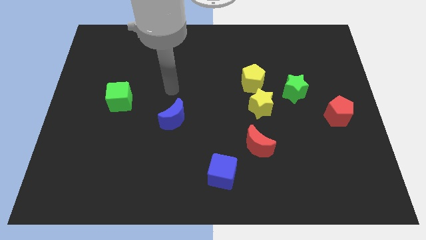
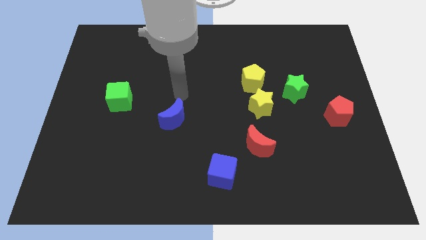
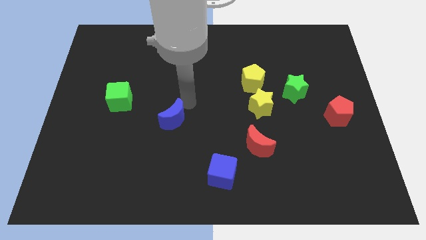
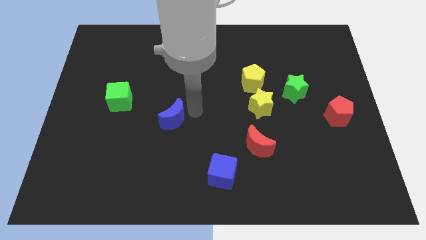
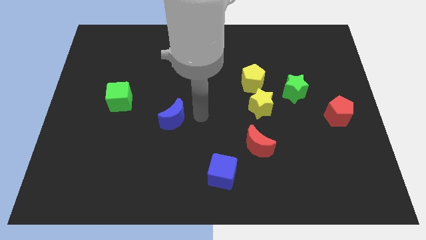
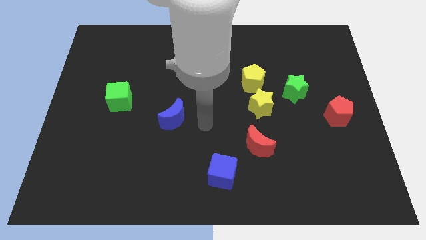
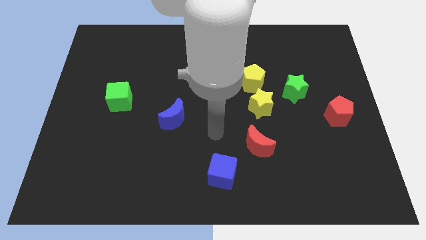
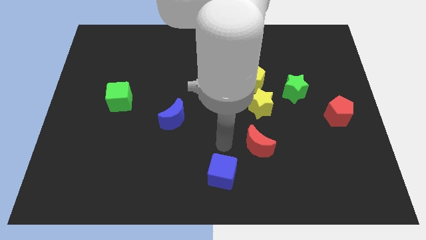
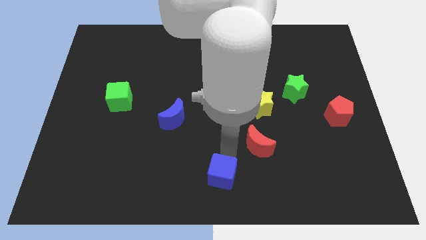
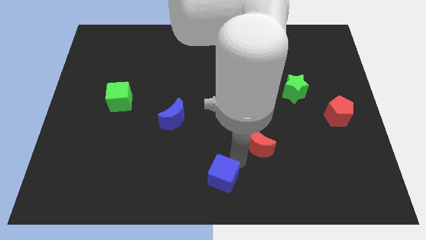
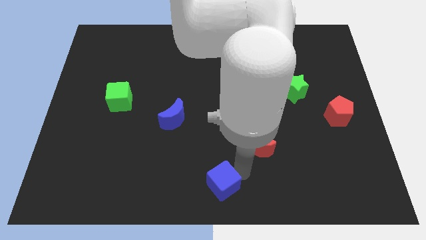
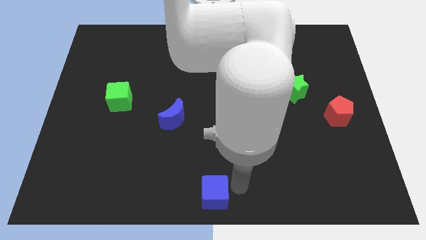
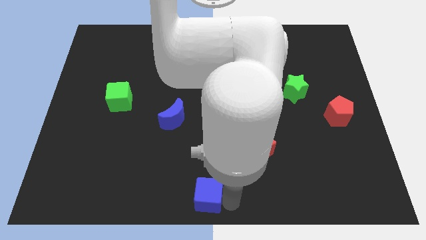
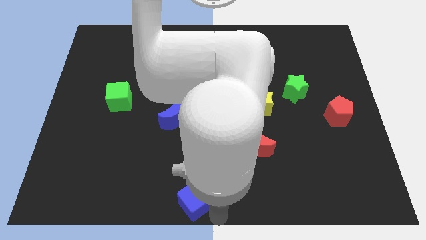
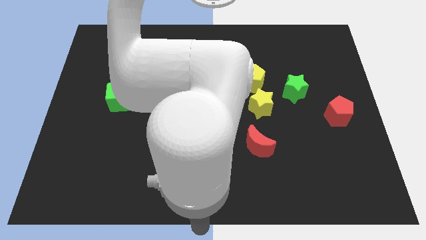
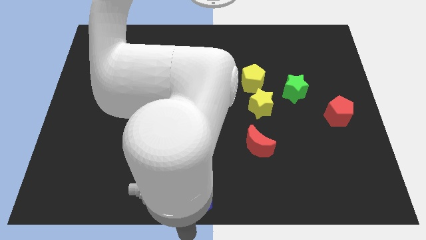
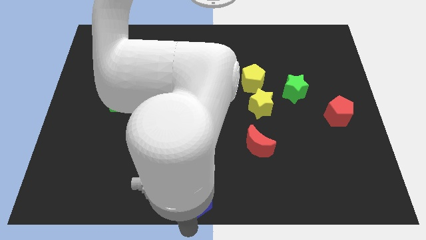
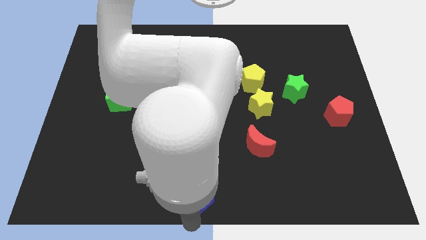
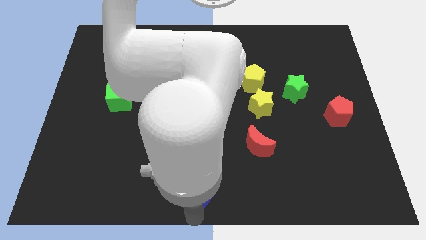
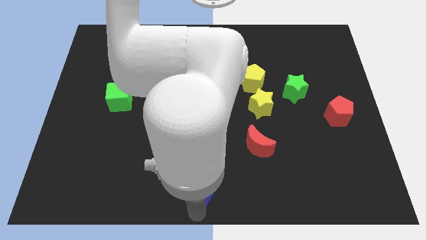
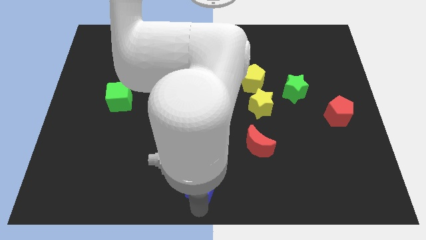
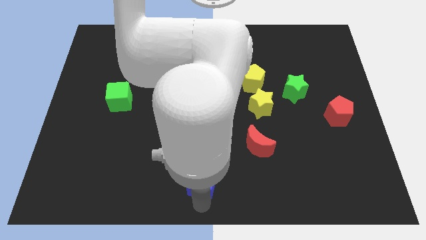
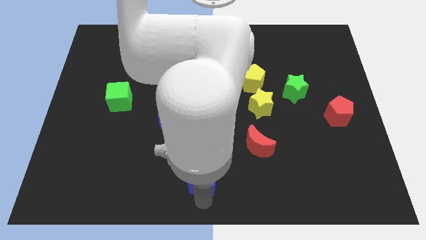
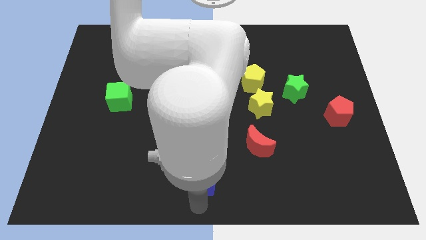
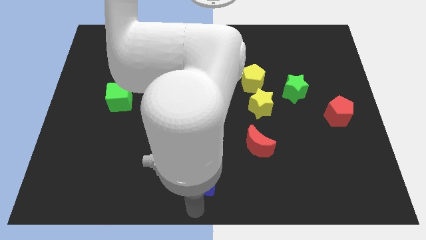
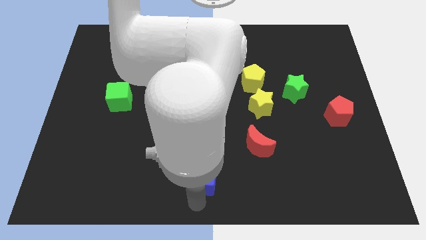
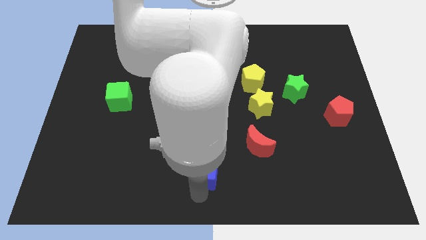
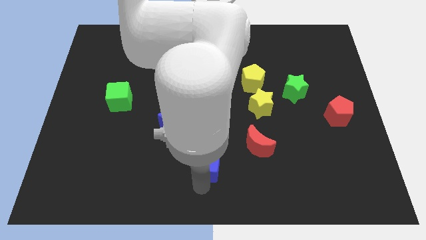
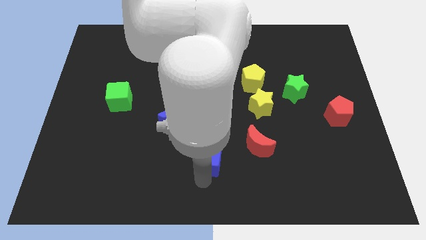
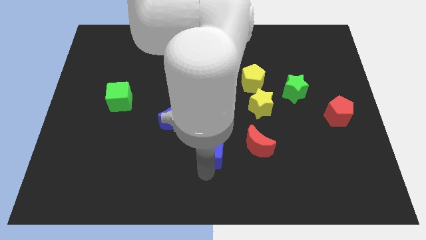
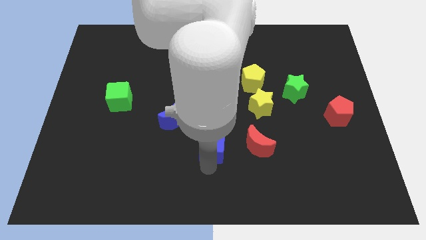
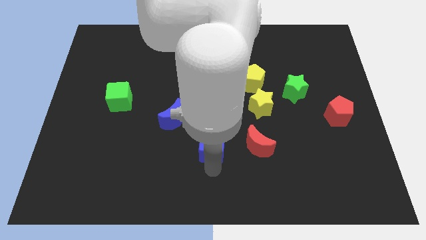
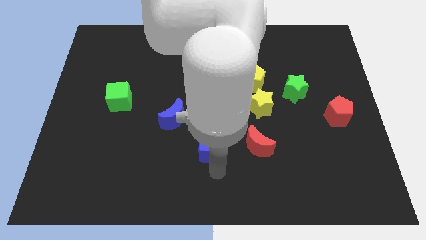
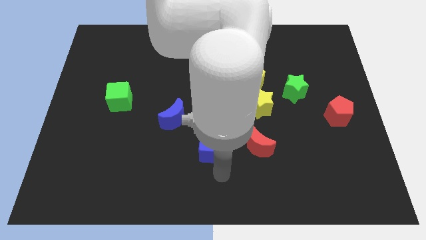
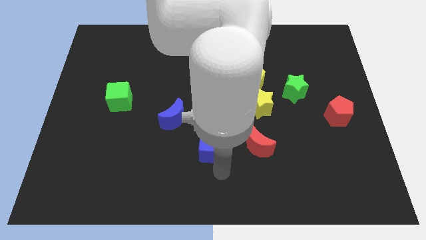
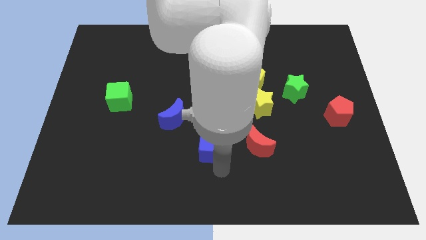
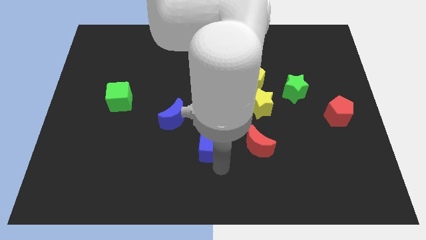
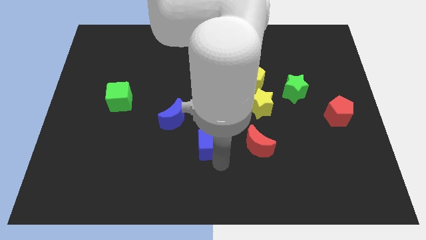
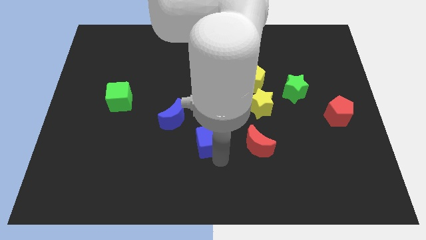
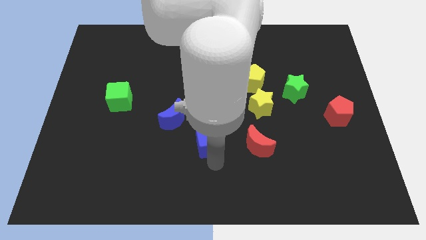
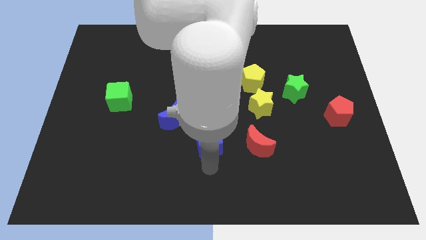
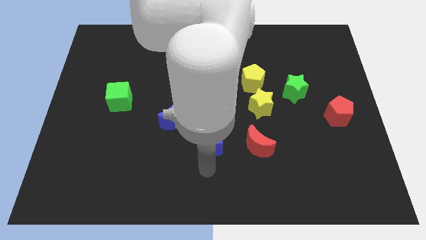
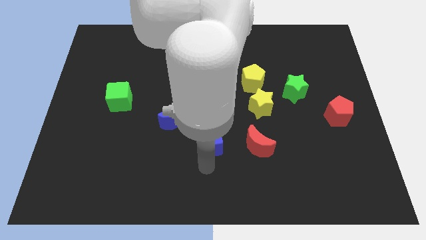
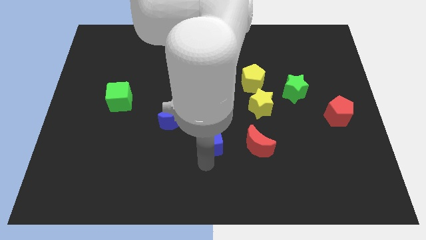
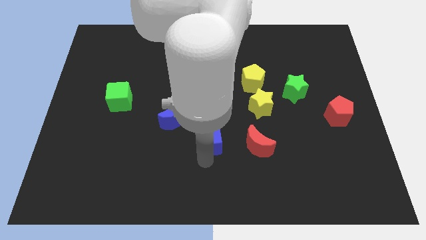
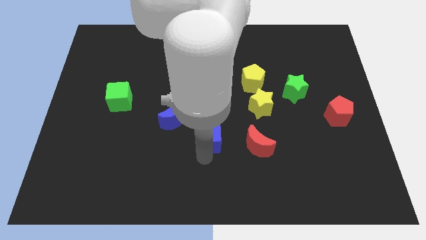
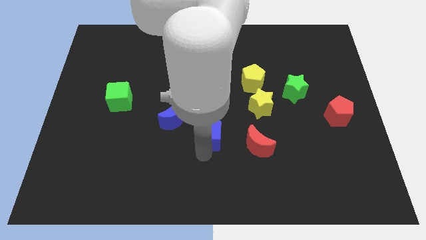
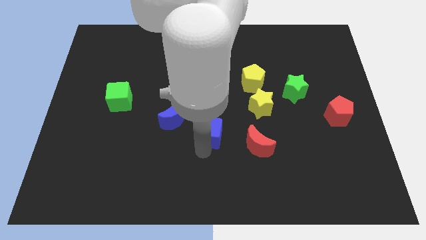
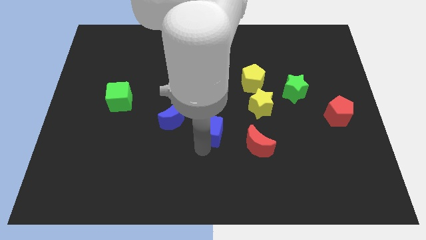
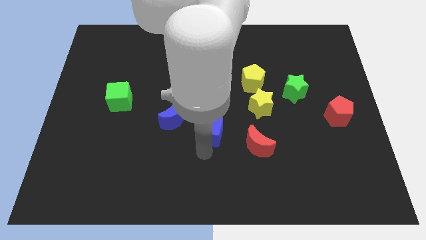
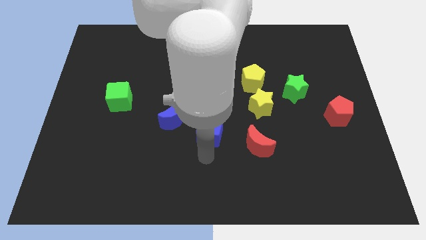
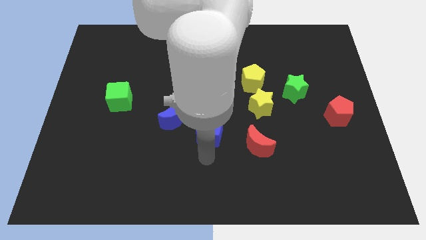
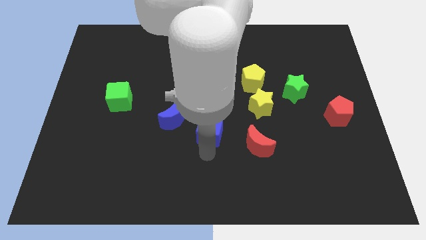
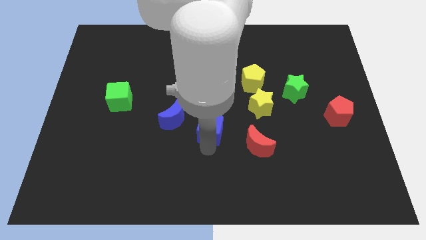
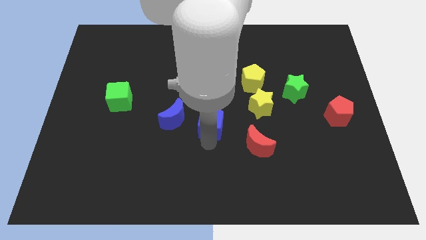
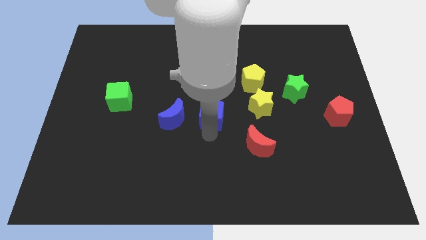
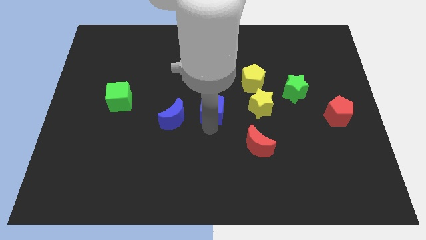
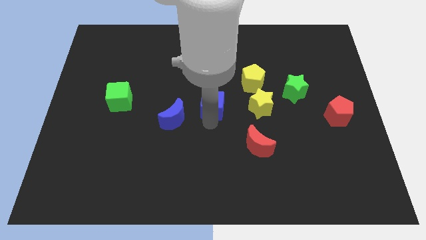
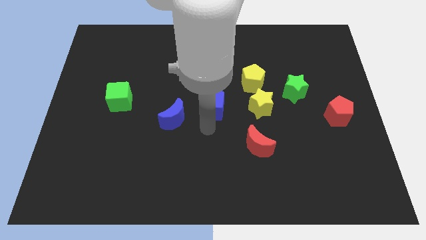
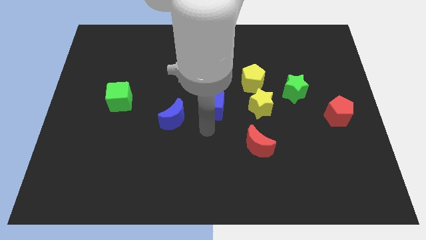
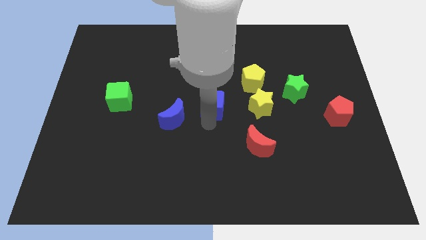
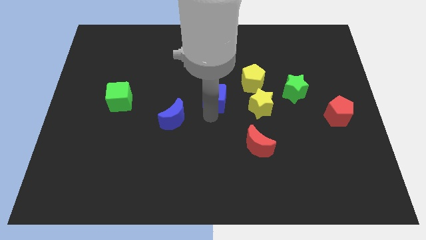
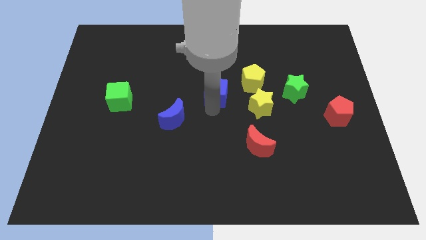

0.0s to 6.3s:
move the blue cube upwards

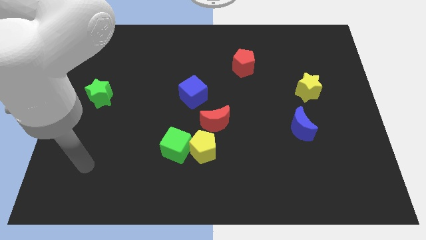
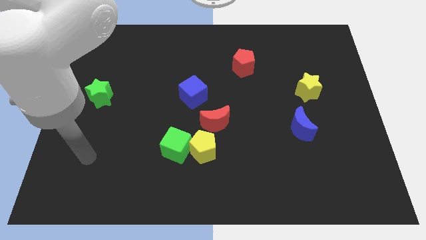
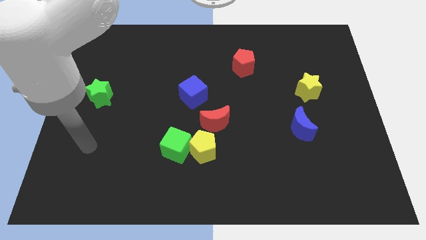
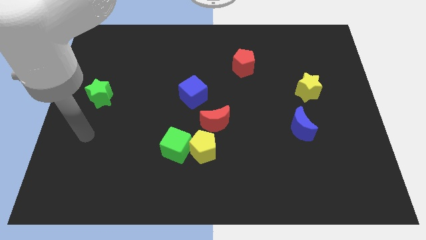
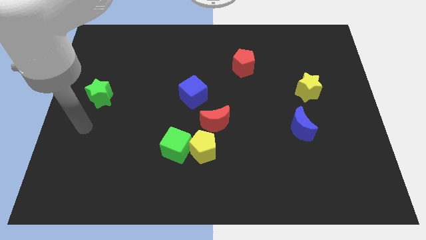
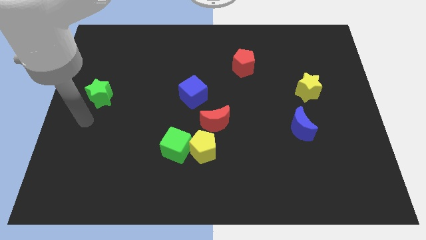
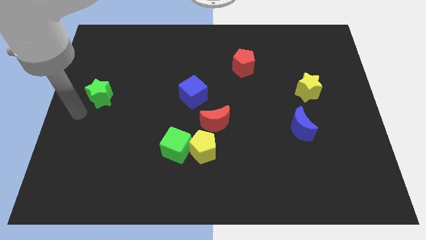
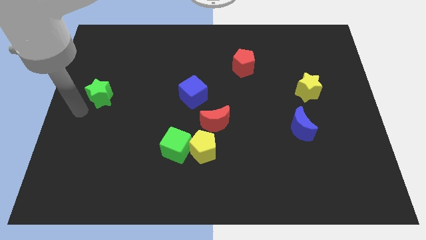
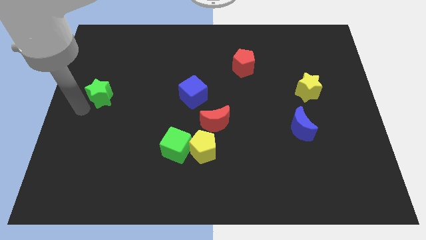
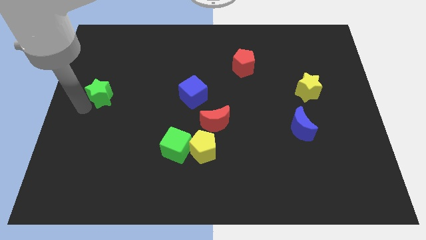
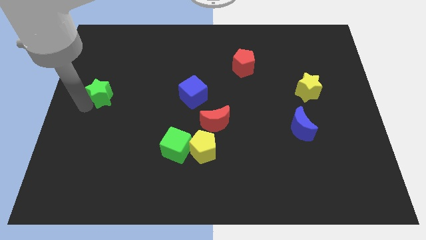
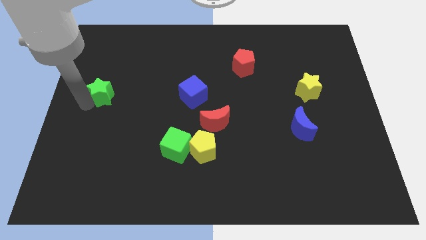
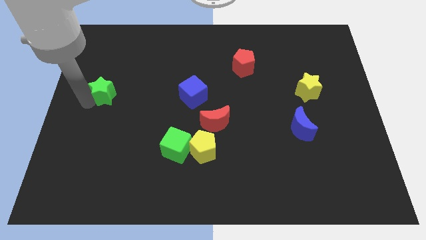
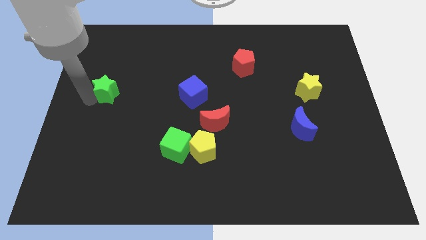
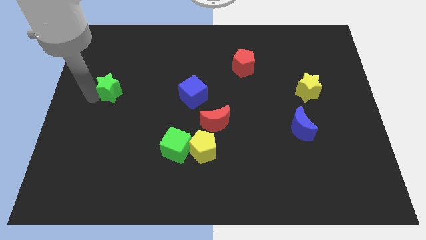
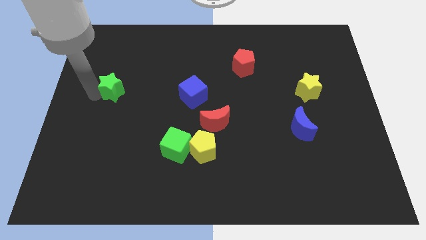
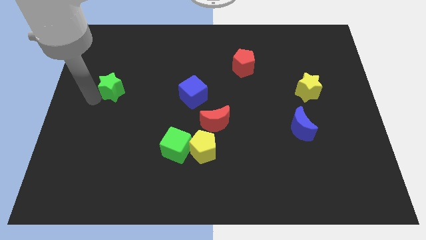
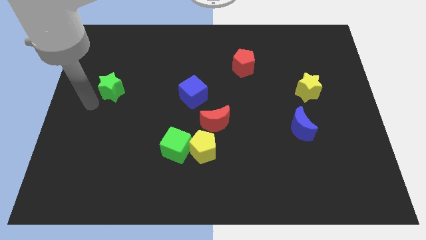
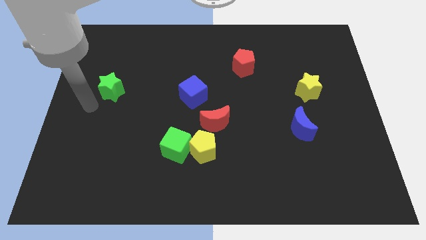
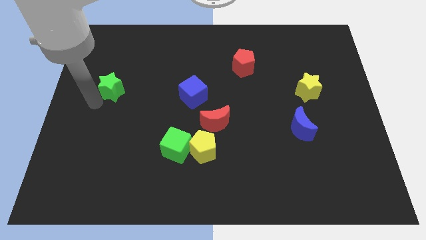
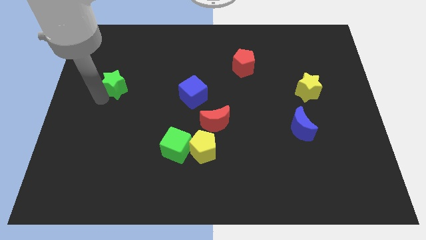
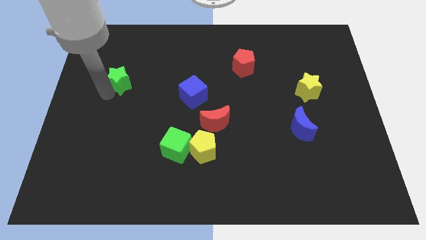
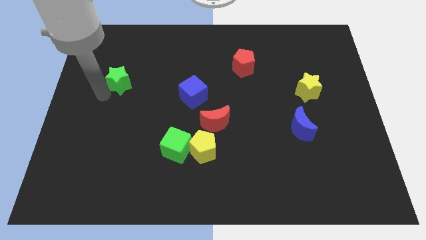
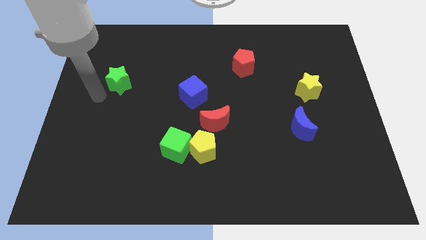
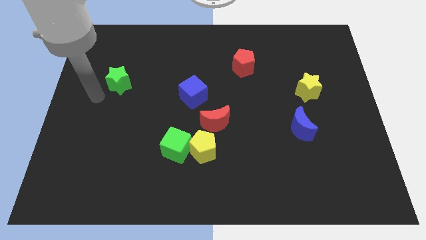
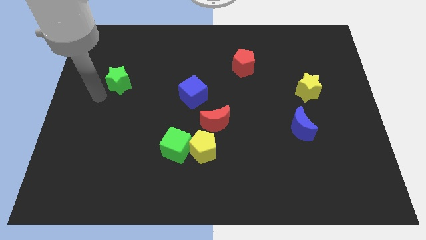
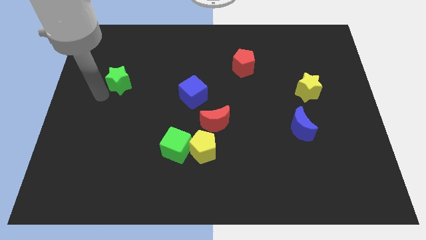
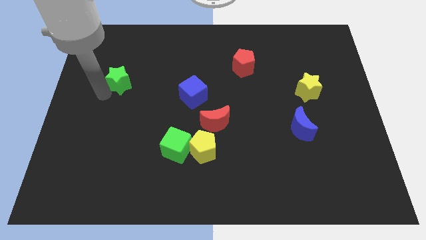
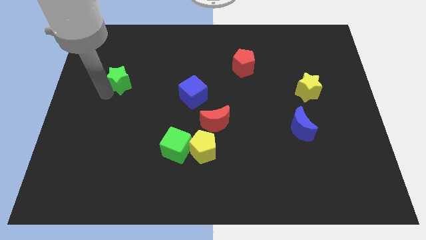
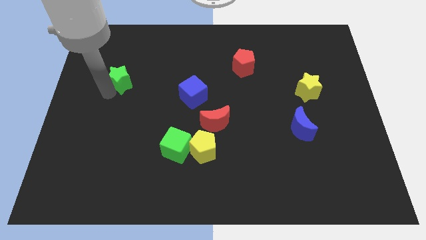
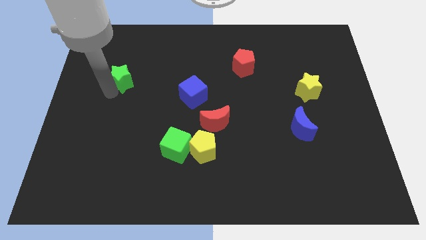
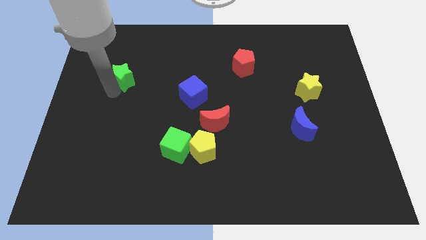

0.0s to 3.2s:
slightly move the green star upwards and then to the right
